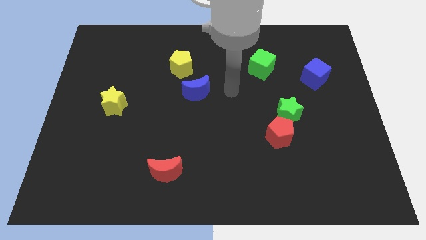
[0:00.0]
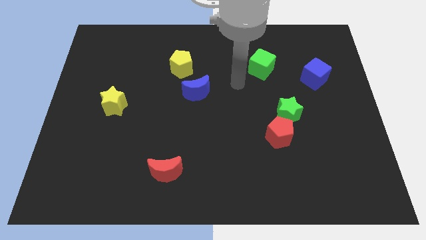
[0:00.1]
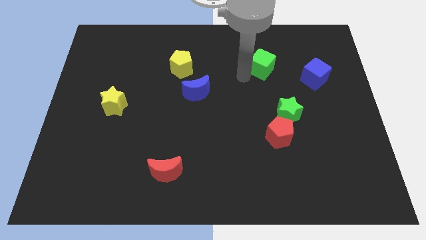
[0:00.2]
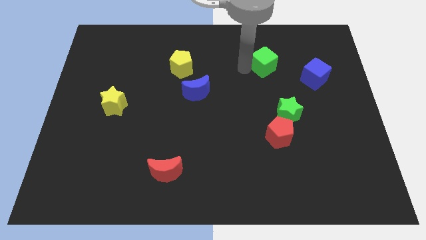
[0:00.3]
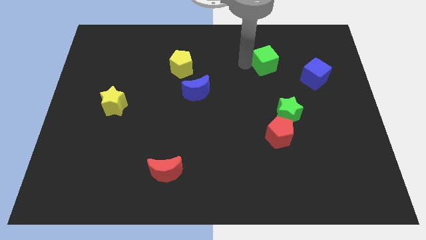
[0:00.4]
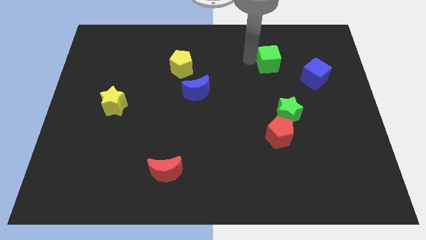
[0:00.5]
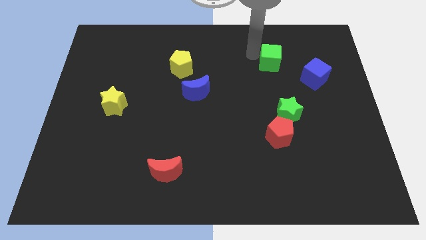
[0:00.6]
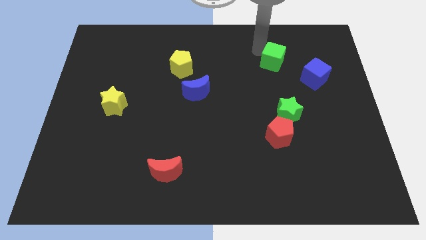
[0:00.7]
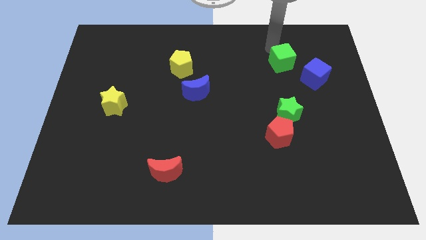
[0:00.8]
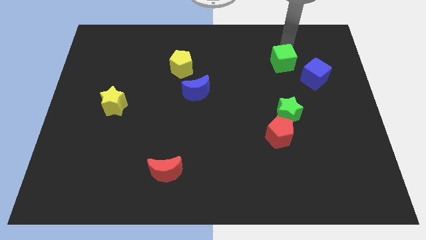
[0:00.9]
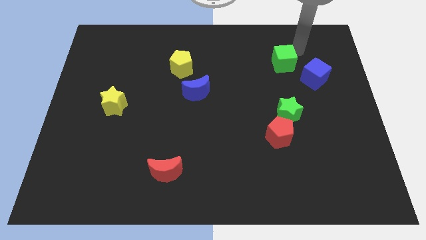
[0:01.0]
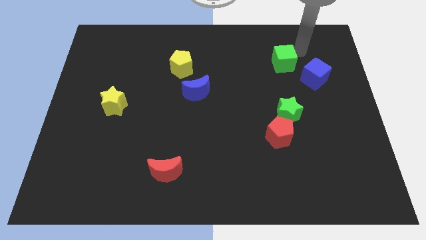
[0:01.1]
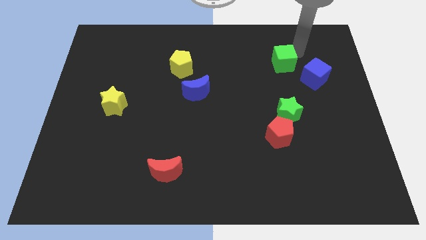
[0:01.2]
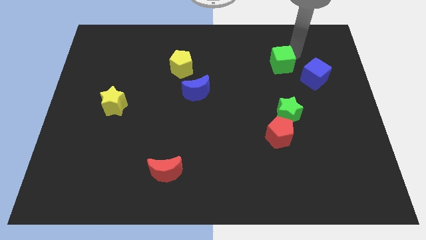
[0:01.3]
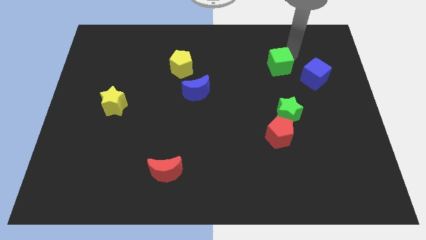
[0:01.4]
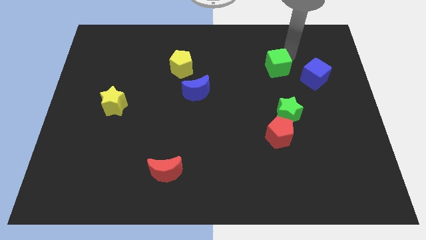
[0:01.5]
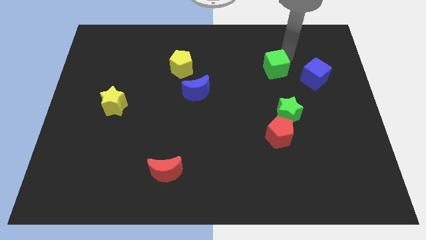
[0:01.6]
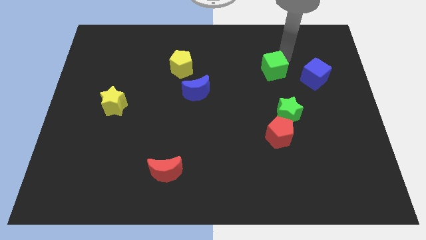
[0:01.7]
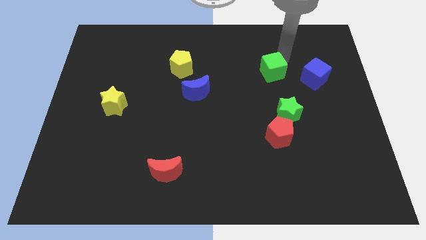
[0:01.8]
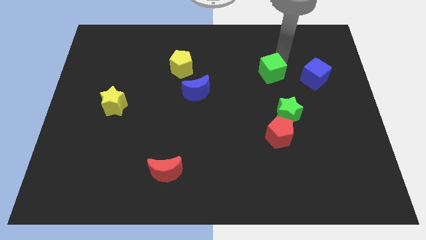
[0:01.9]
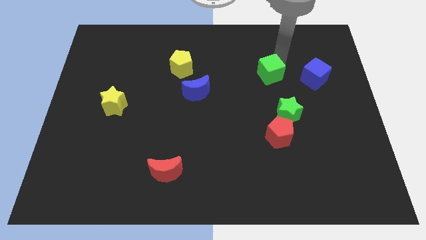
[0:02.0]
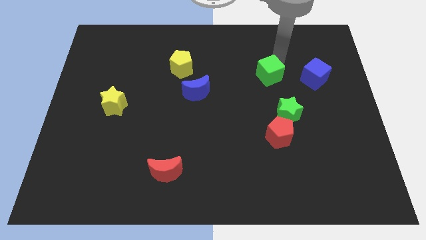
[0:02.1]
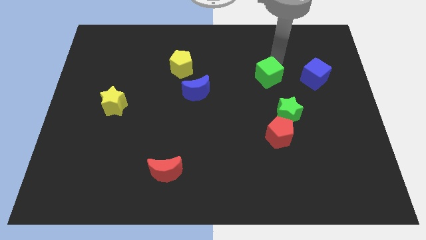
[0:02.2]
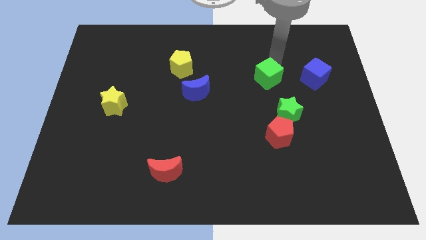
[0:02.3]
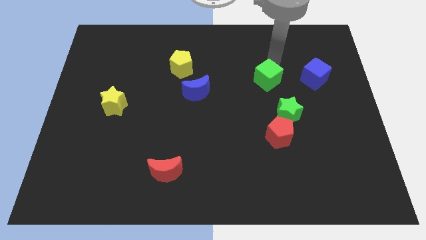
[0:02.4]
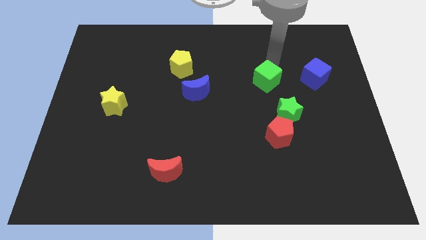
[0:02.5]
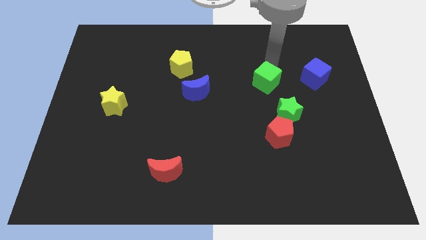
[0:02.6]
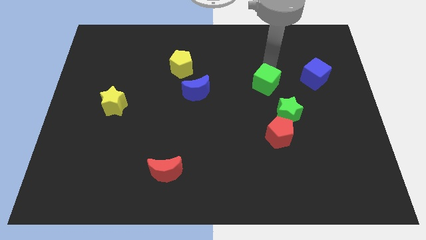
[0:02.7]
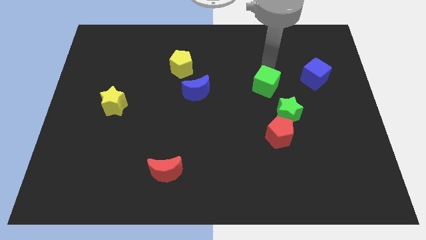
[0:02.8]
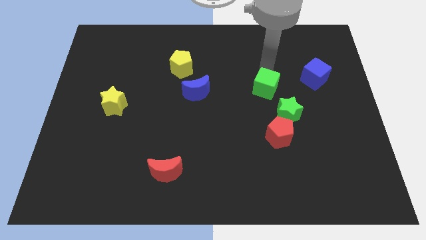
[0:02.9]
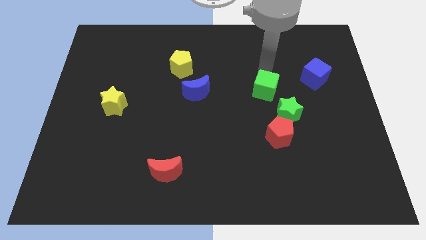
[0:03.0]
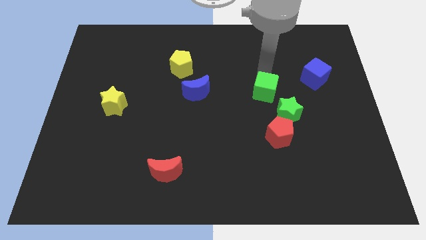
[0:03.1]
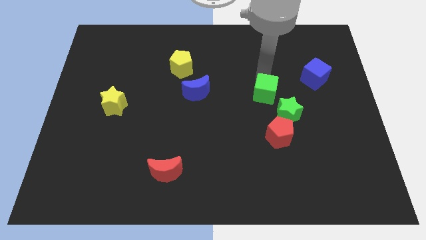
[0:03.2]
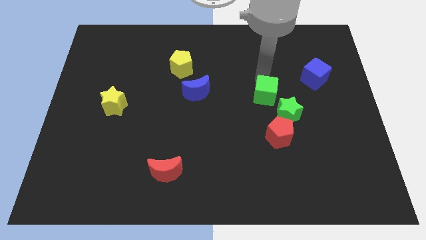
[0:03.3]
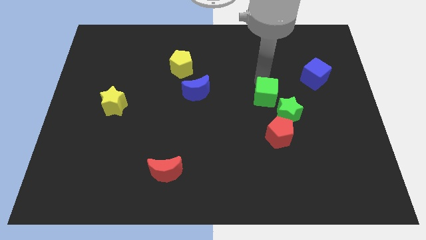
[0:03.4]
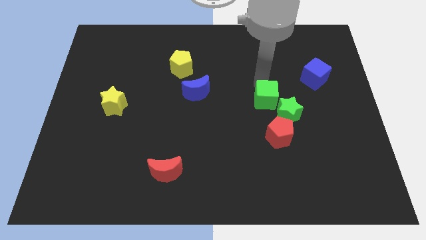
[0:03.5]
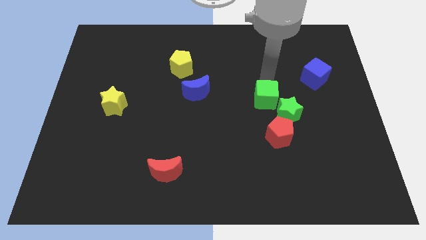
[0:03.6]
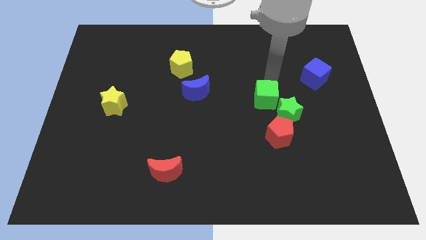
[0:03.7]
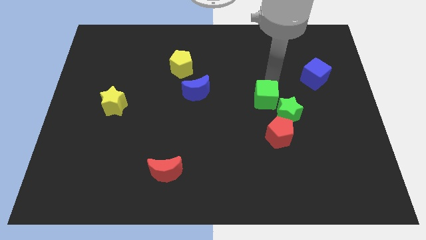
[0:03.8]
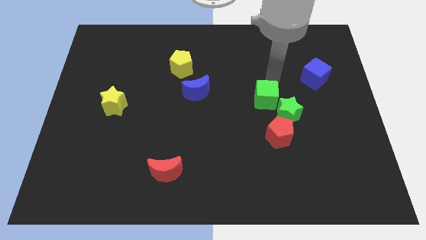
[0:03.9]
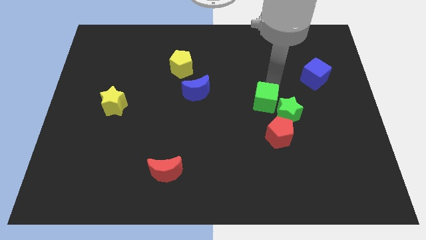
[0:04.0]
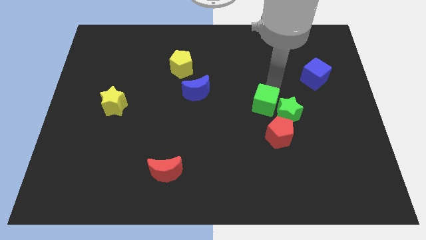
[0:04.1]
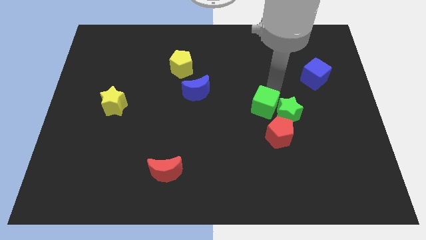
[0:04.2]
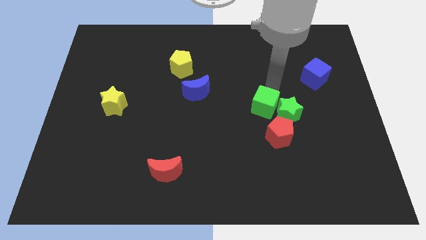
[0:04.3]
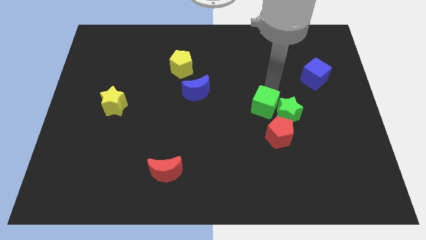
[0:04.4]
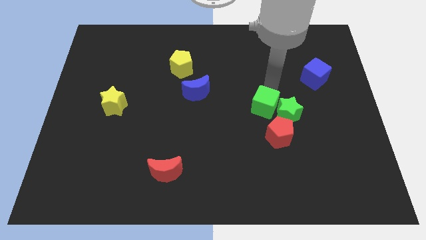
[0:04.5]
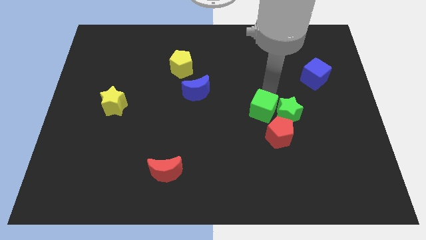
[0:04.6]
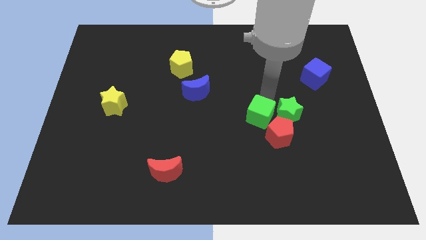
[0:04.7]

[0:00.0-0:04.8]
push the green cube to the bottom left of the green star

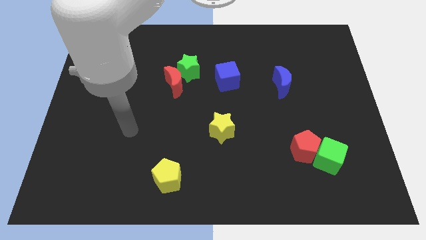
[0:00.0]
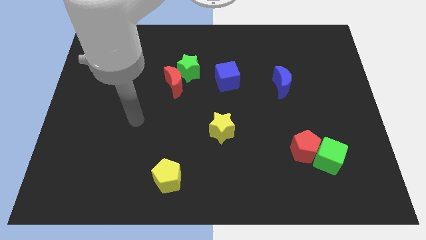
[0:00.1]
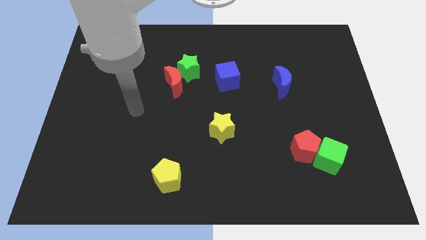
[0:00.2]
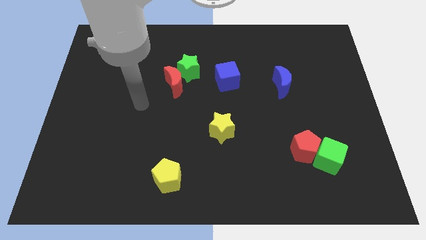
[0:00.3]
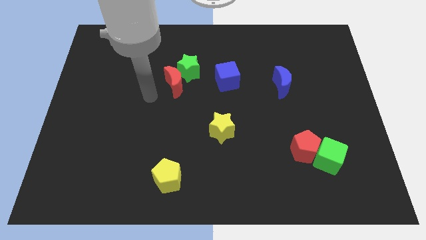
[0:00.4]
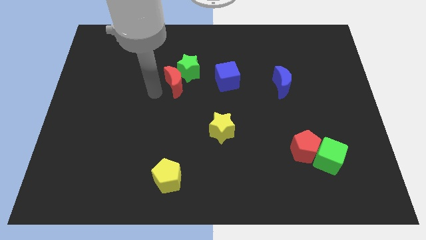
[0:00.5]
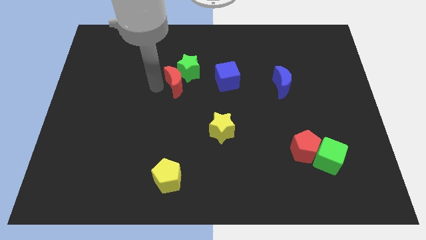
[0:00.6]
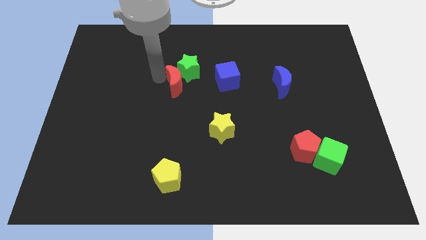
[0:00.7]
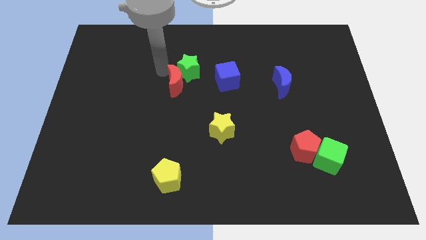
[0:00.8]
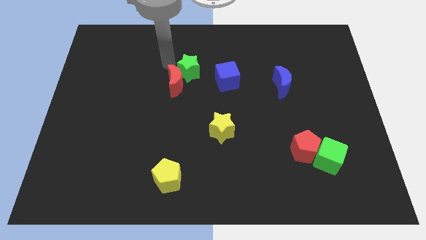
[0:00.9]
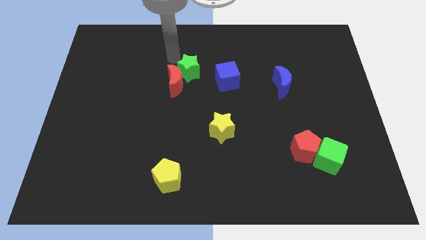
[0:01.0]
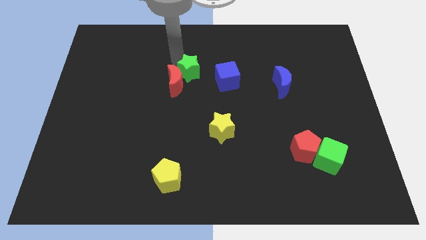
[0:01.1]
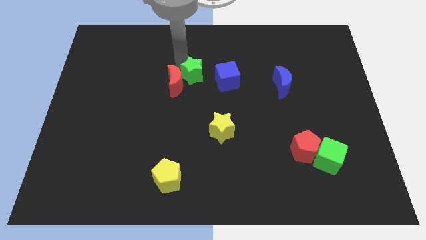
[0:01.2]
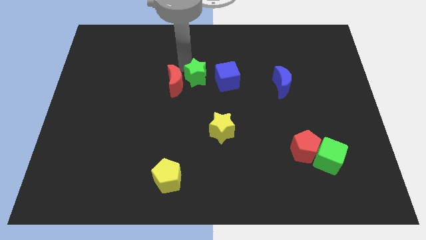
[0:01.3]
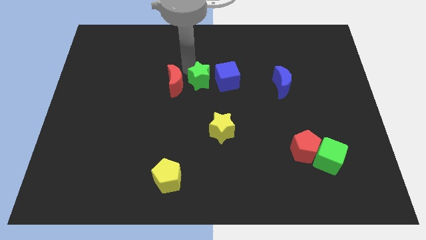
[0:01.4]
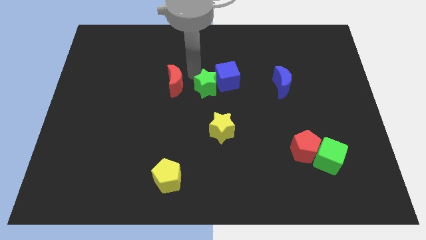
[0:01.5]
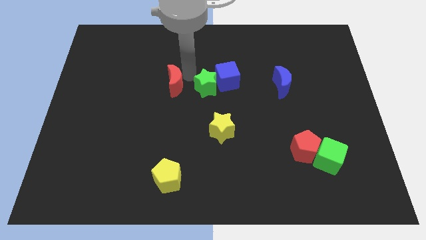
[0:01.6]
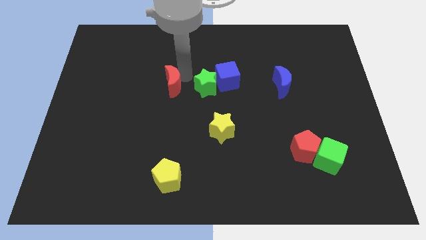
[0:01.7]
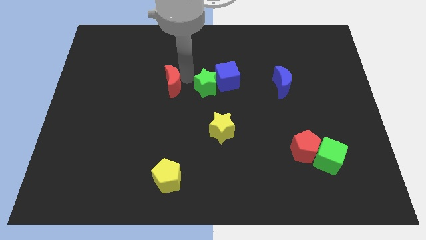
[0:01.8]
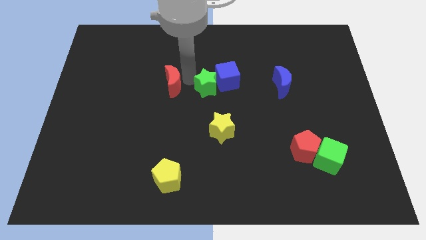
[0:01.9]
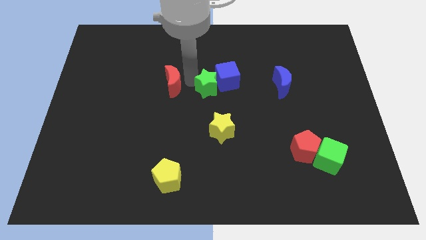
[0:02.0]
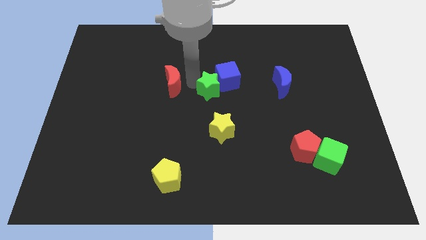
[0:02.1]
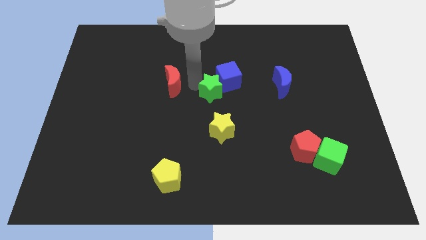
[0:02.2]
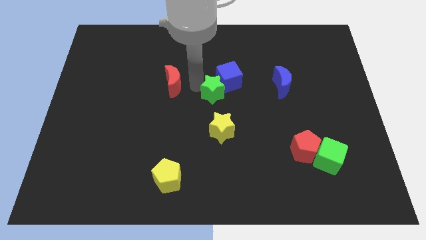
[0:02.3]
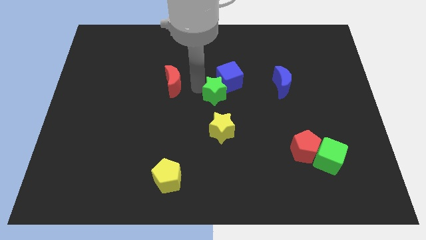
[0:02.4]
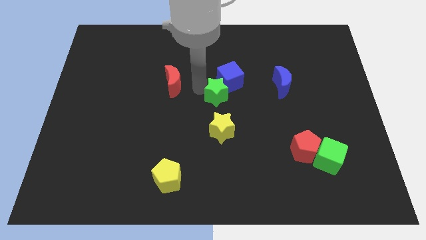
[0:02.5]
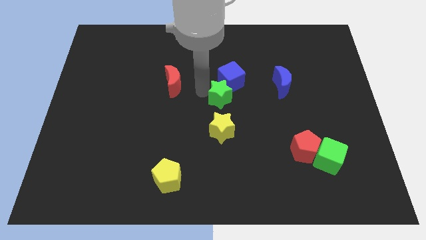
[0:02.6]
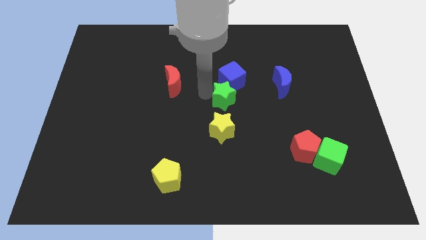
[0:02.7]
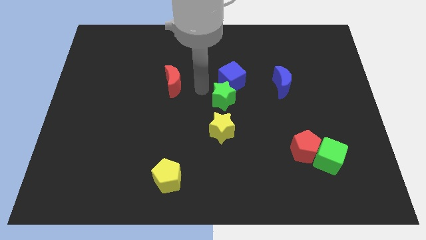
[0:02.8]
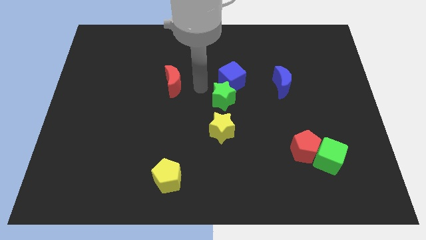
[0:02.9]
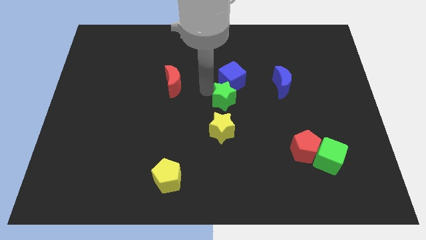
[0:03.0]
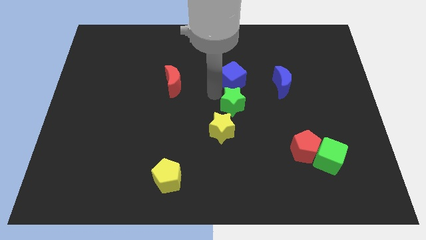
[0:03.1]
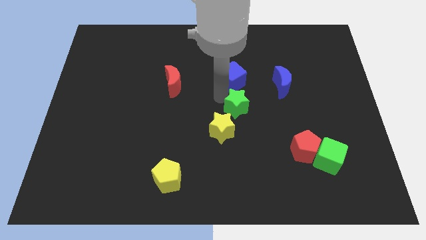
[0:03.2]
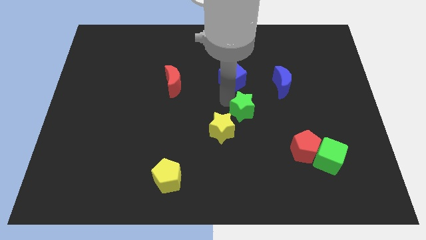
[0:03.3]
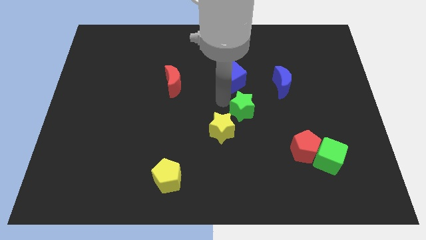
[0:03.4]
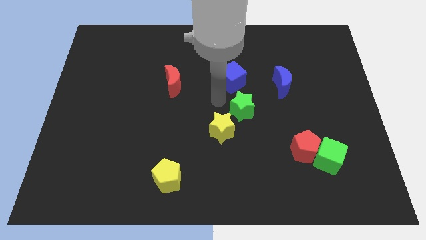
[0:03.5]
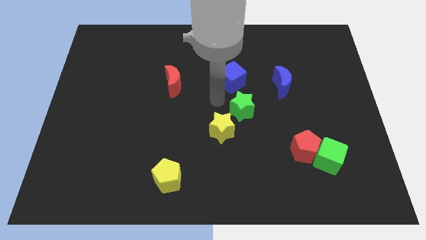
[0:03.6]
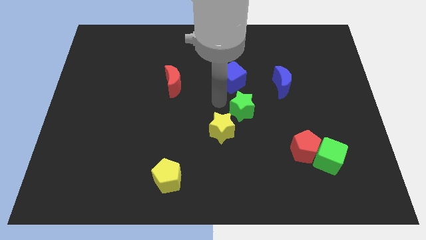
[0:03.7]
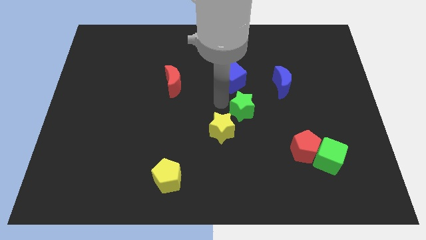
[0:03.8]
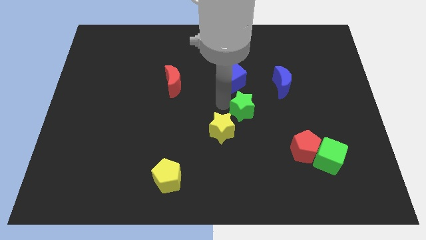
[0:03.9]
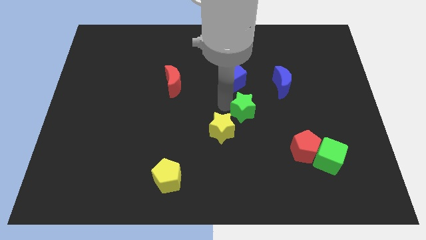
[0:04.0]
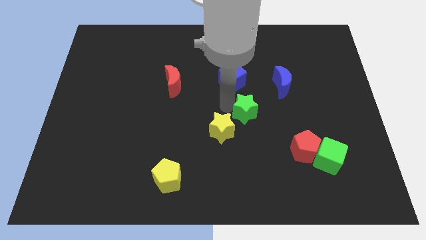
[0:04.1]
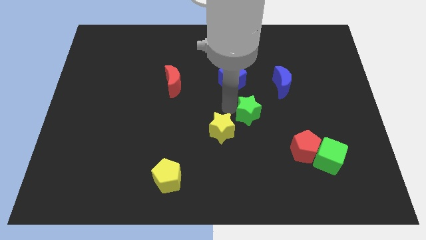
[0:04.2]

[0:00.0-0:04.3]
slide the green star right of the yellow star
